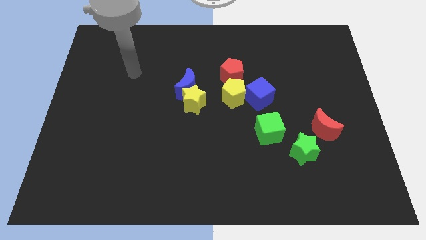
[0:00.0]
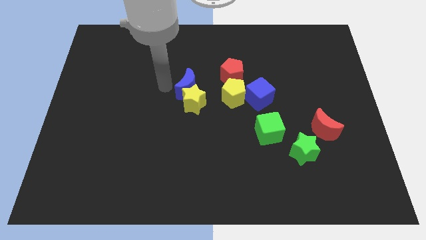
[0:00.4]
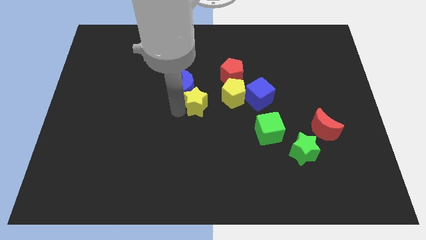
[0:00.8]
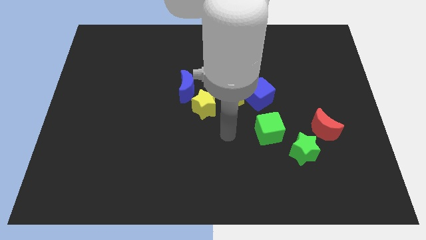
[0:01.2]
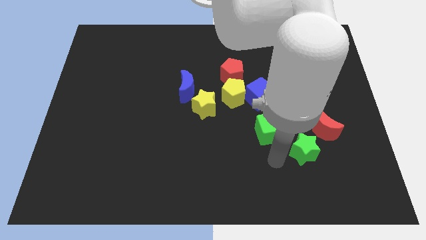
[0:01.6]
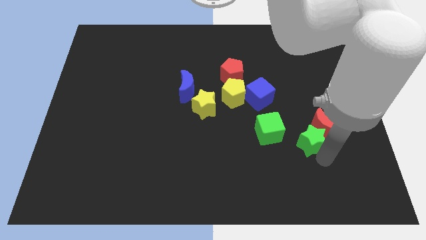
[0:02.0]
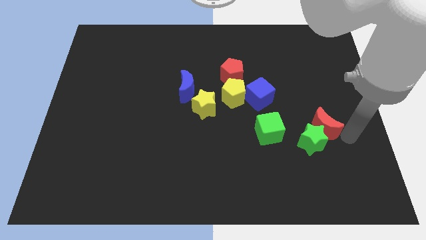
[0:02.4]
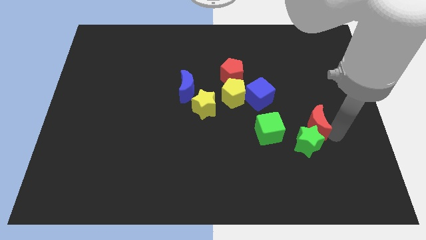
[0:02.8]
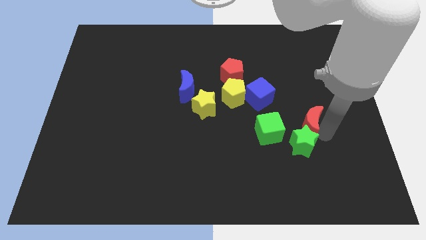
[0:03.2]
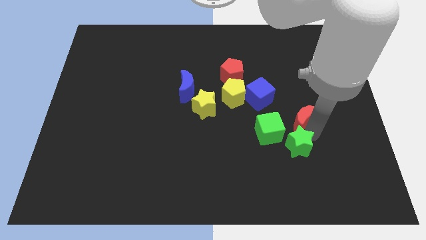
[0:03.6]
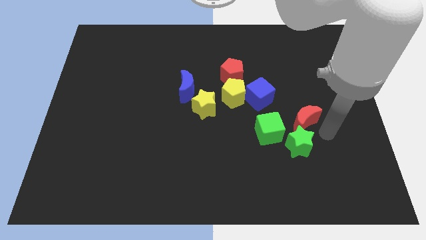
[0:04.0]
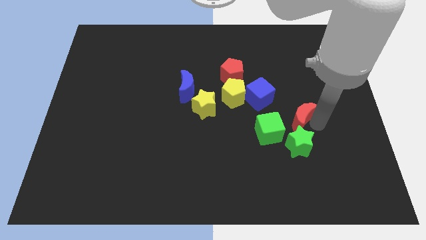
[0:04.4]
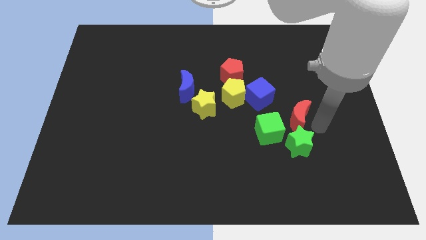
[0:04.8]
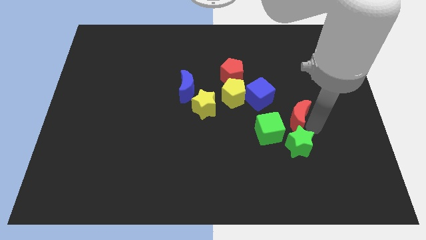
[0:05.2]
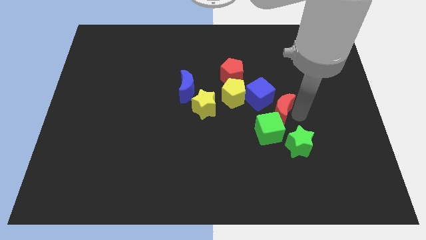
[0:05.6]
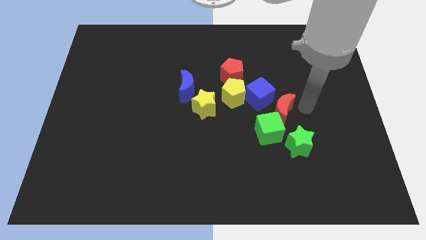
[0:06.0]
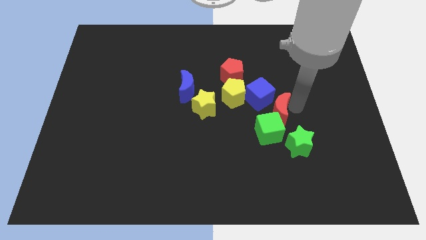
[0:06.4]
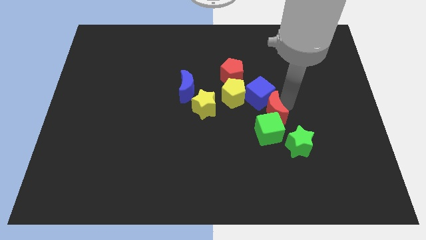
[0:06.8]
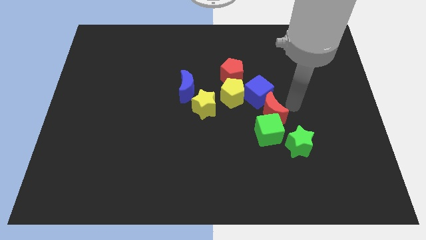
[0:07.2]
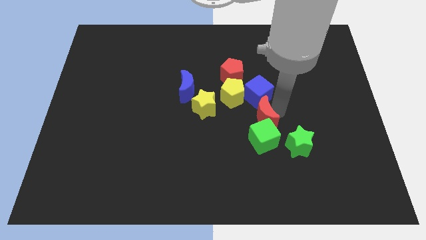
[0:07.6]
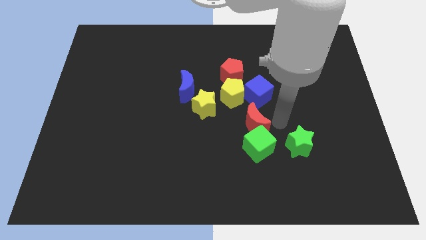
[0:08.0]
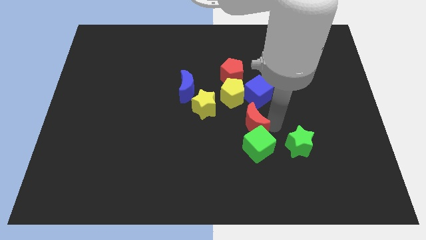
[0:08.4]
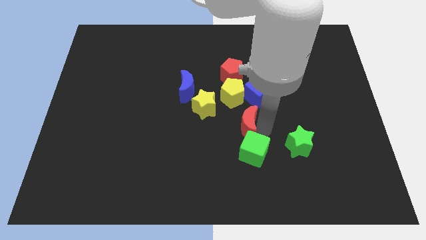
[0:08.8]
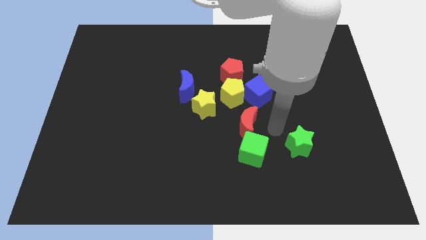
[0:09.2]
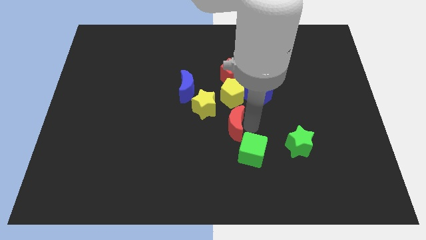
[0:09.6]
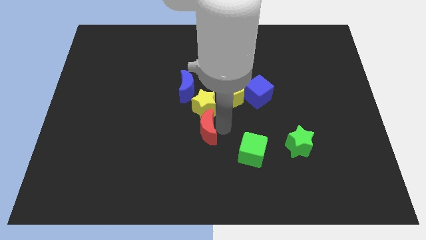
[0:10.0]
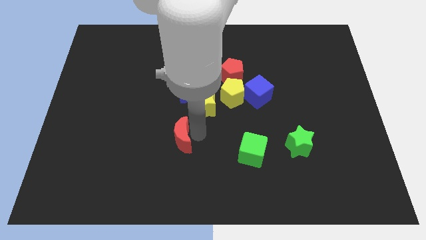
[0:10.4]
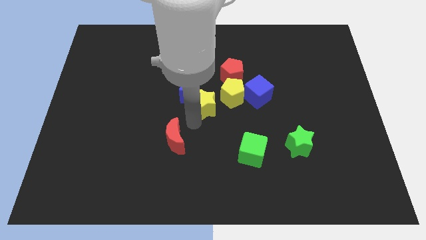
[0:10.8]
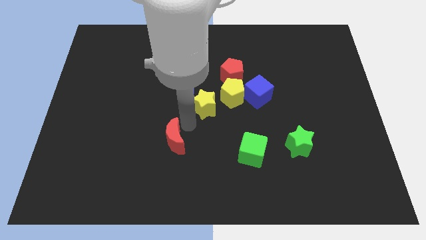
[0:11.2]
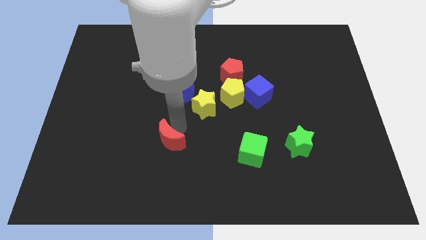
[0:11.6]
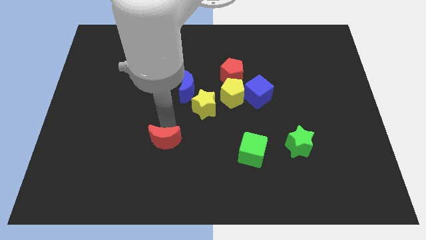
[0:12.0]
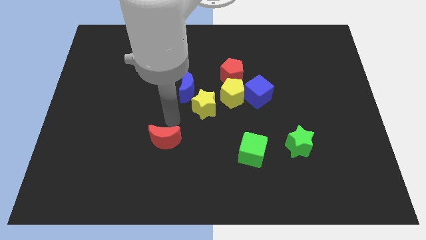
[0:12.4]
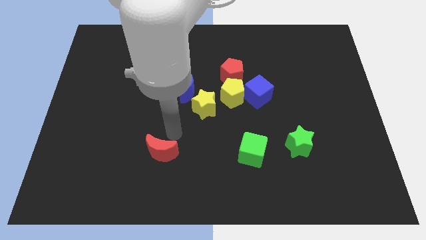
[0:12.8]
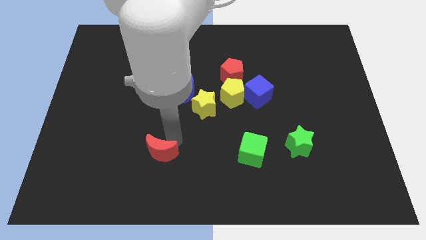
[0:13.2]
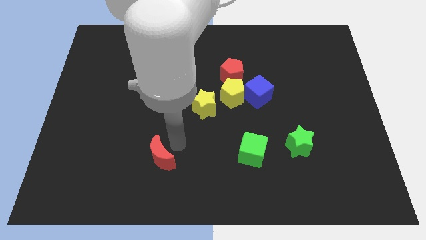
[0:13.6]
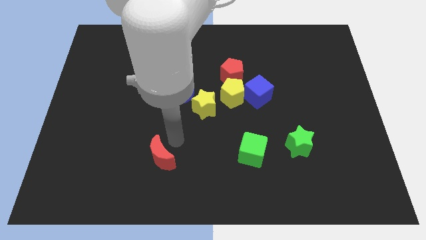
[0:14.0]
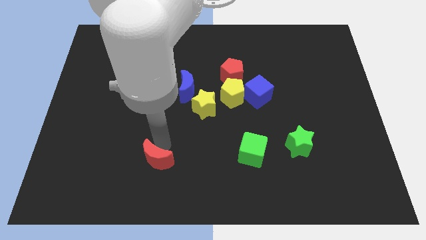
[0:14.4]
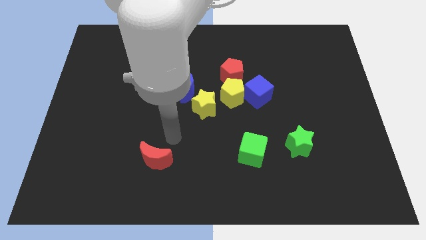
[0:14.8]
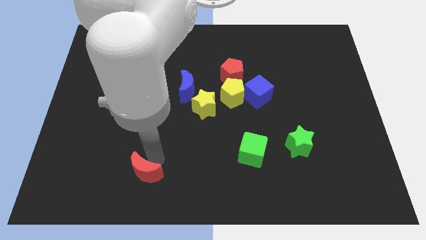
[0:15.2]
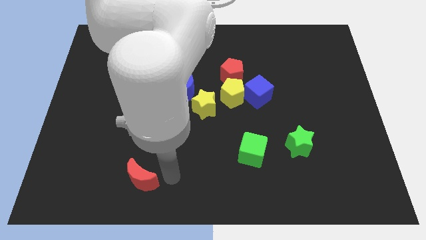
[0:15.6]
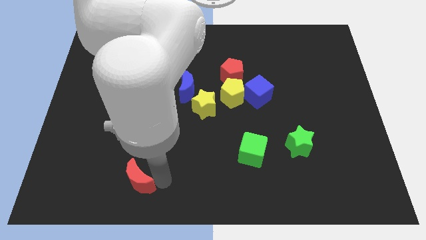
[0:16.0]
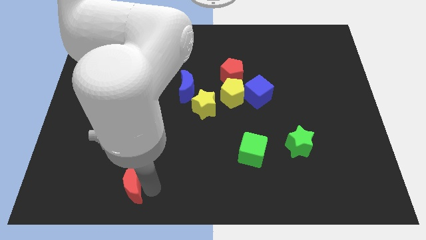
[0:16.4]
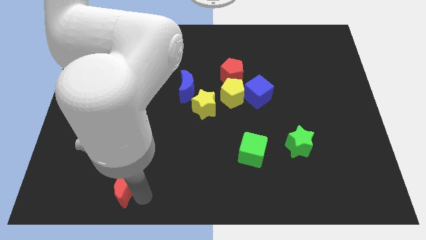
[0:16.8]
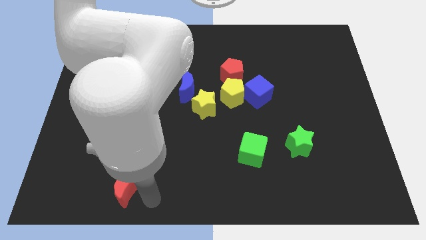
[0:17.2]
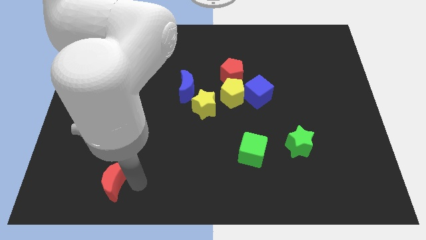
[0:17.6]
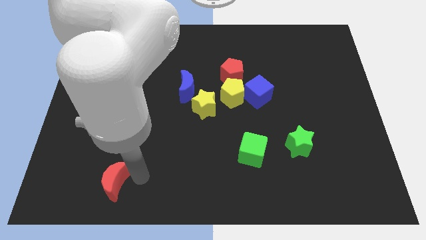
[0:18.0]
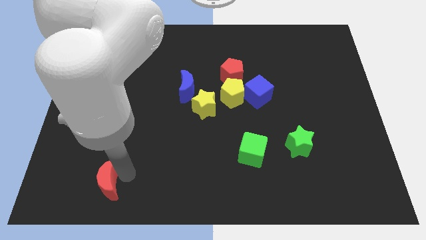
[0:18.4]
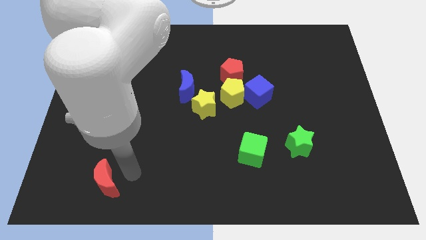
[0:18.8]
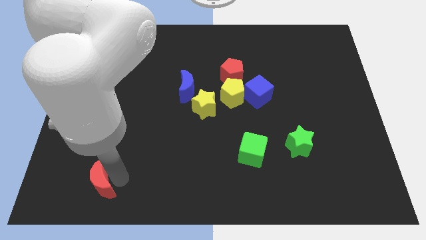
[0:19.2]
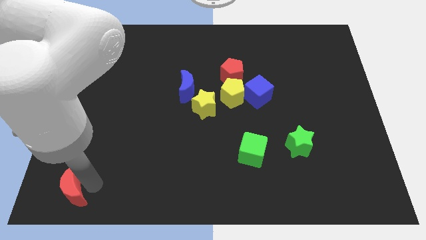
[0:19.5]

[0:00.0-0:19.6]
slide the red moon to the bottom left corner

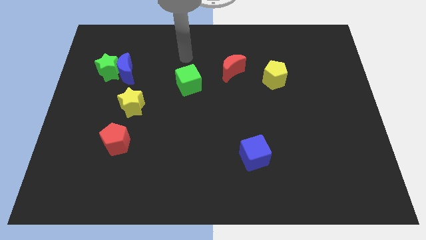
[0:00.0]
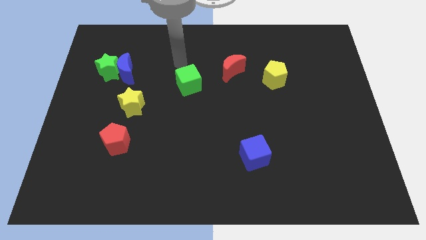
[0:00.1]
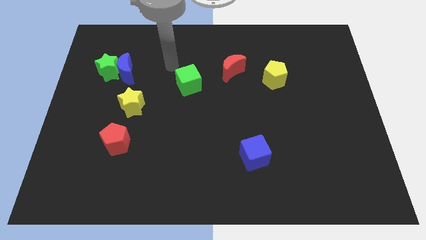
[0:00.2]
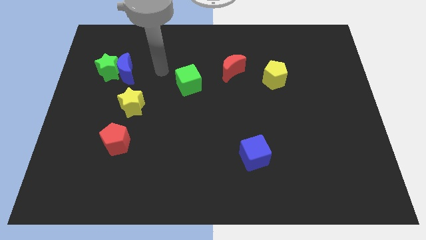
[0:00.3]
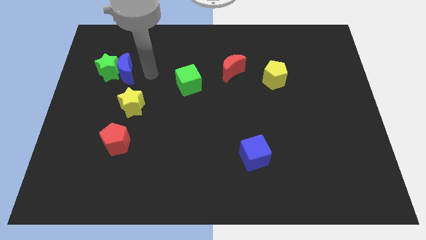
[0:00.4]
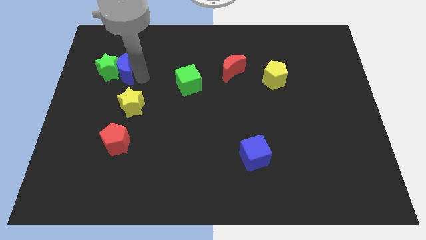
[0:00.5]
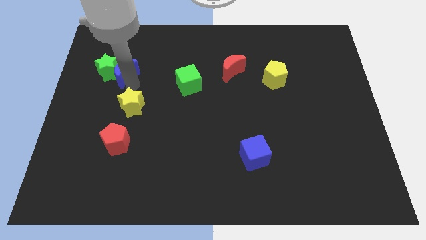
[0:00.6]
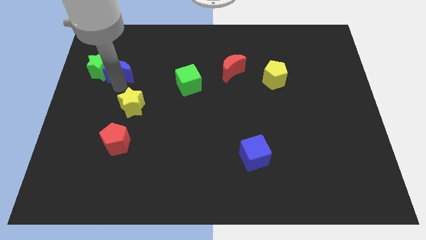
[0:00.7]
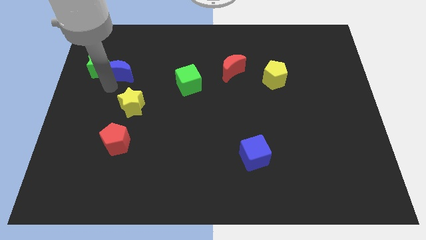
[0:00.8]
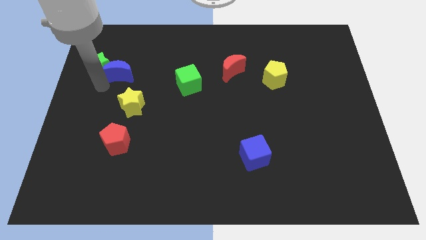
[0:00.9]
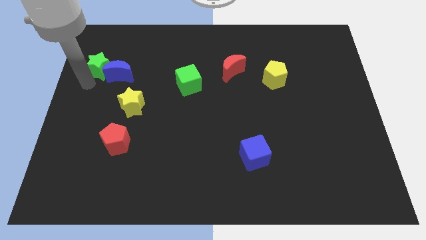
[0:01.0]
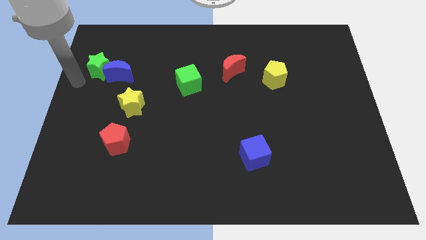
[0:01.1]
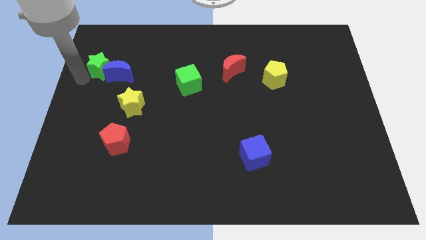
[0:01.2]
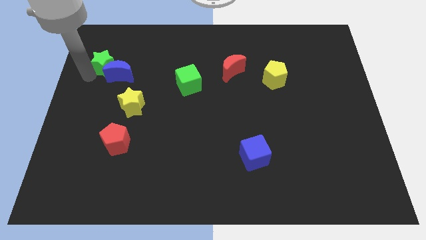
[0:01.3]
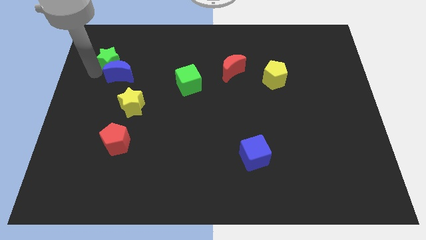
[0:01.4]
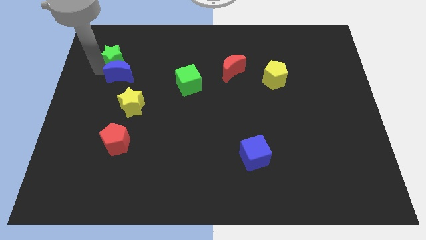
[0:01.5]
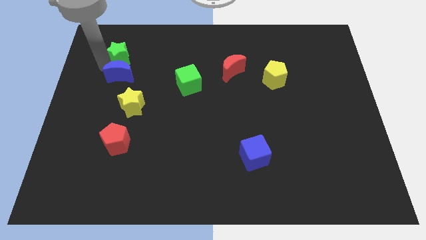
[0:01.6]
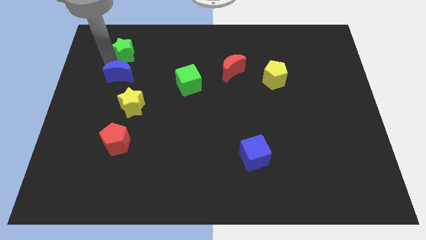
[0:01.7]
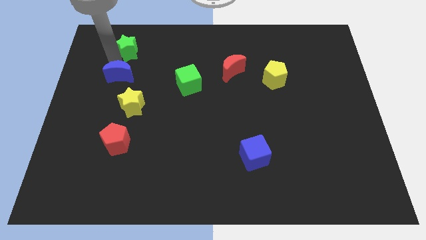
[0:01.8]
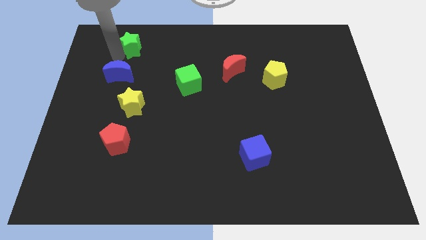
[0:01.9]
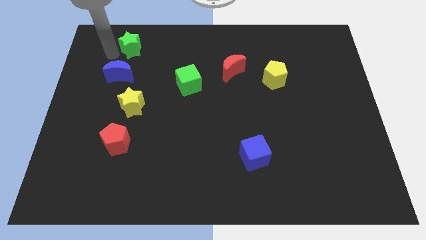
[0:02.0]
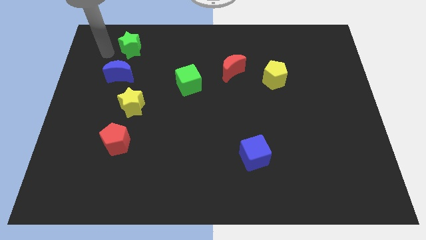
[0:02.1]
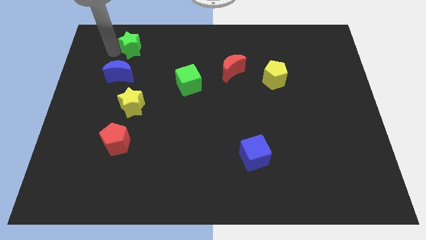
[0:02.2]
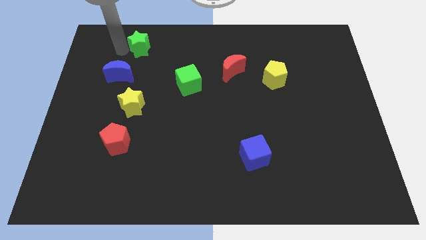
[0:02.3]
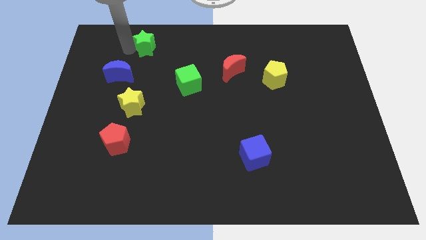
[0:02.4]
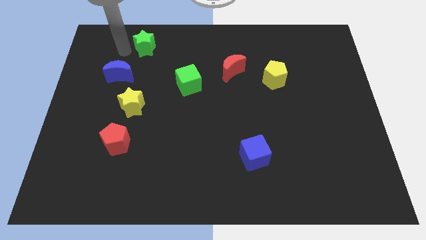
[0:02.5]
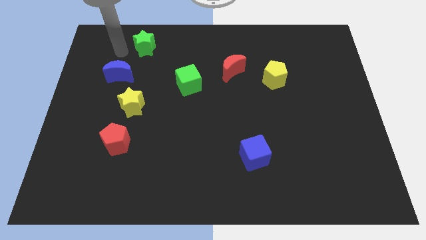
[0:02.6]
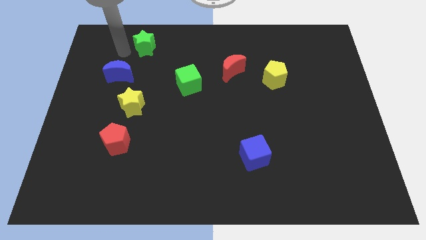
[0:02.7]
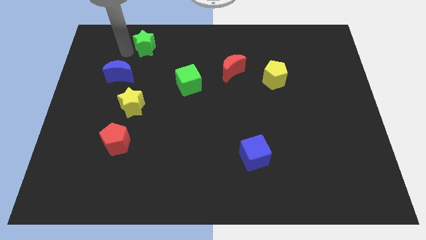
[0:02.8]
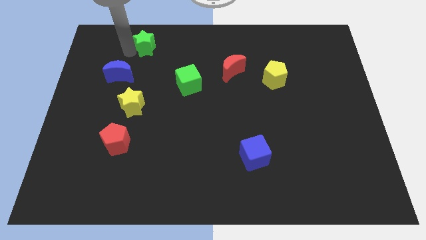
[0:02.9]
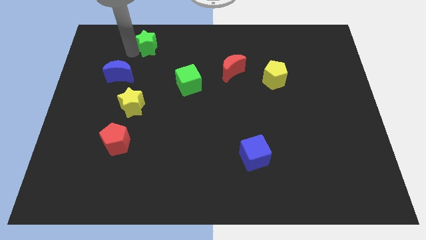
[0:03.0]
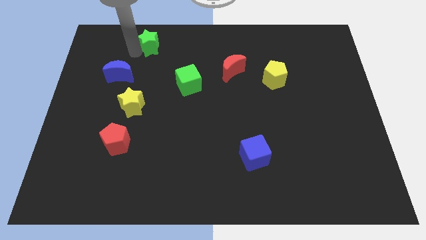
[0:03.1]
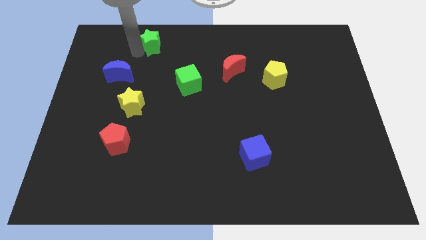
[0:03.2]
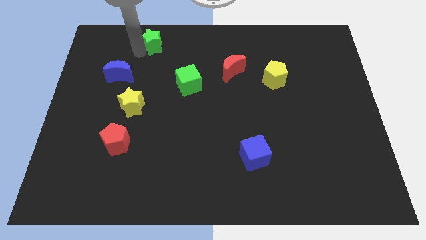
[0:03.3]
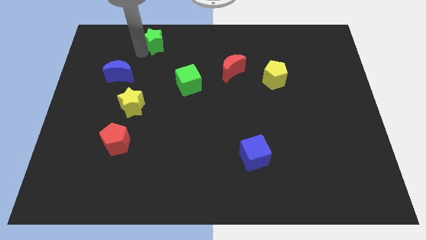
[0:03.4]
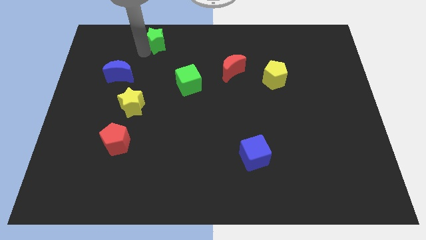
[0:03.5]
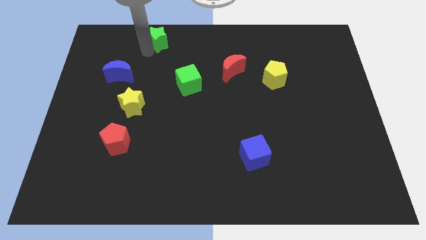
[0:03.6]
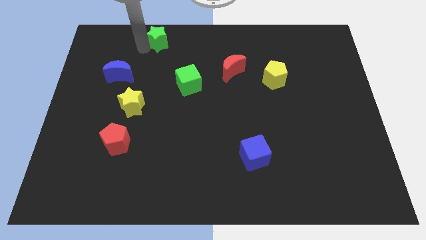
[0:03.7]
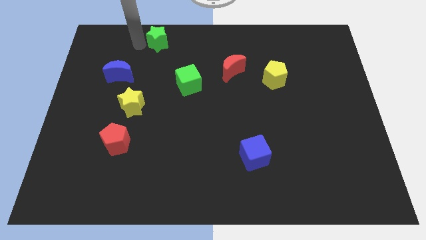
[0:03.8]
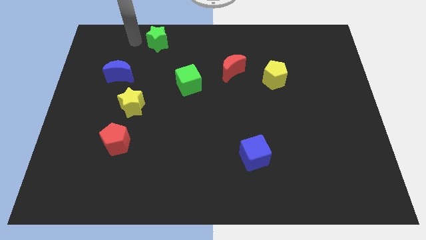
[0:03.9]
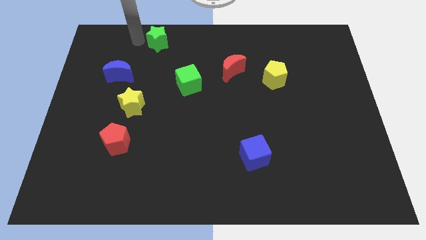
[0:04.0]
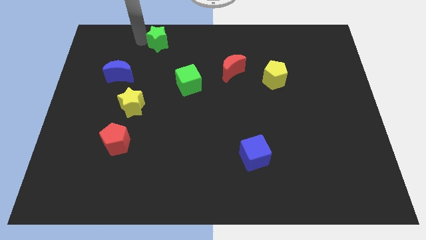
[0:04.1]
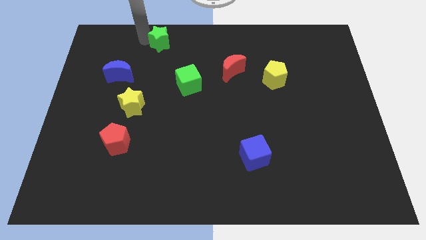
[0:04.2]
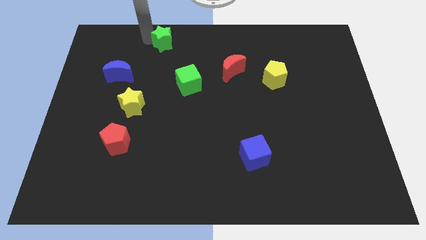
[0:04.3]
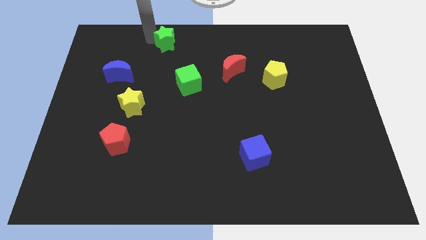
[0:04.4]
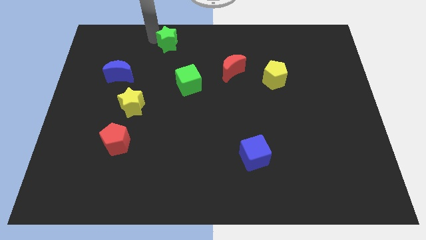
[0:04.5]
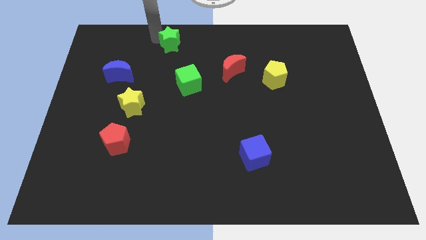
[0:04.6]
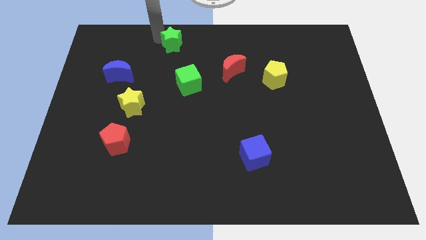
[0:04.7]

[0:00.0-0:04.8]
slide the green star to the towards your base
